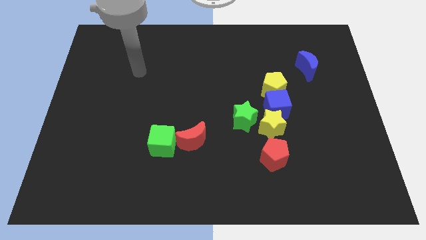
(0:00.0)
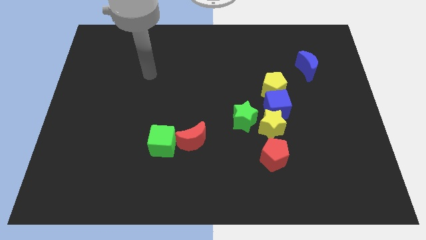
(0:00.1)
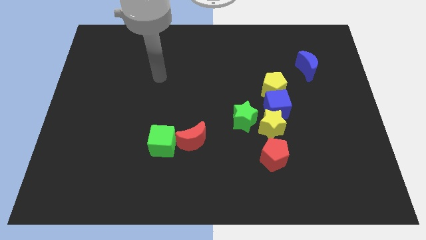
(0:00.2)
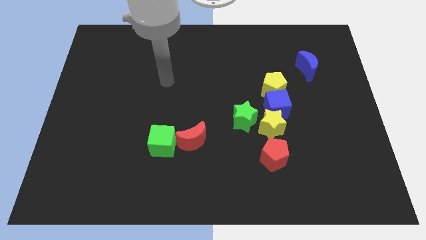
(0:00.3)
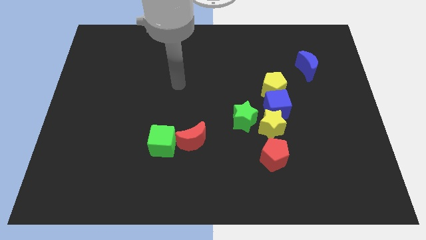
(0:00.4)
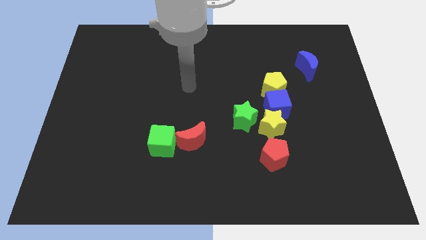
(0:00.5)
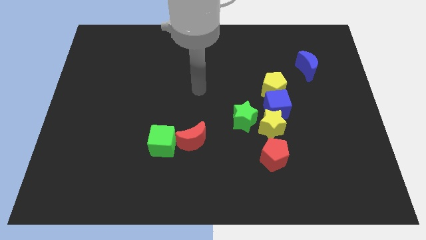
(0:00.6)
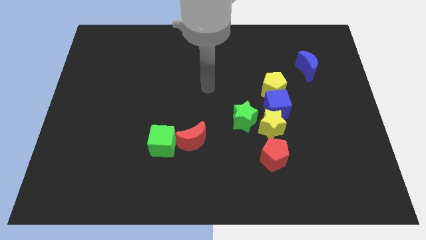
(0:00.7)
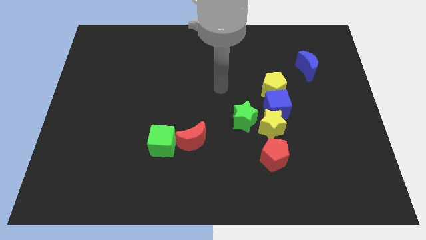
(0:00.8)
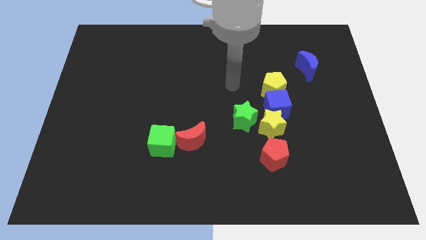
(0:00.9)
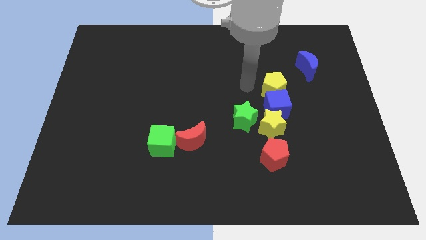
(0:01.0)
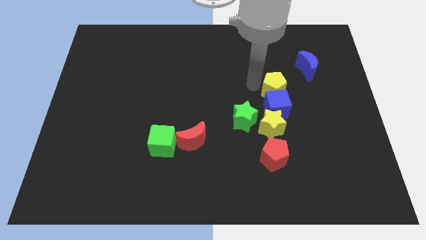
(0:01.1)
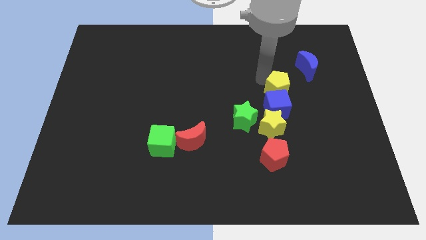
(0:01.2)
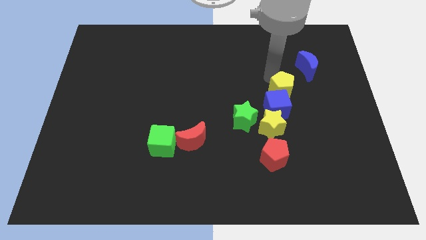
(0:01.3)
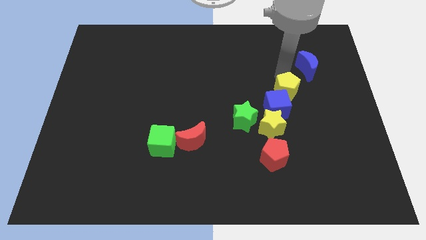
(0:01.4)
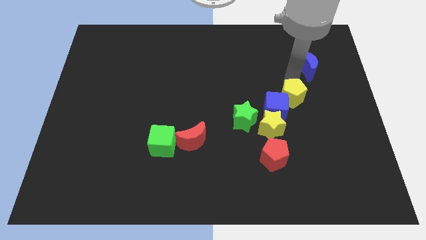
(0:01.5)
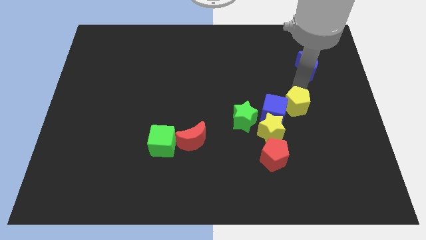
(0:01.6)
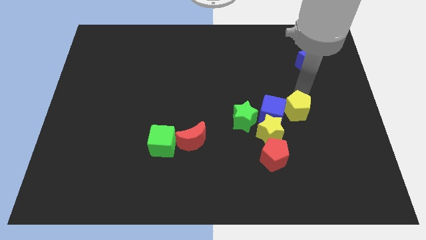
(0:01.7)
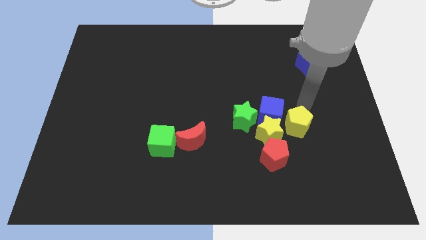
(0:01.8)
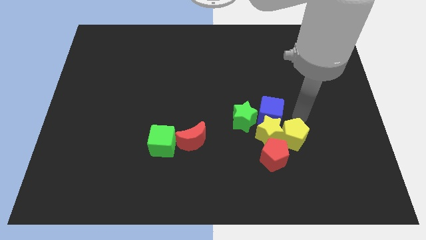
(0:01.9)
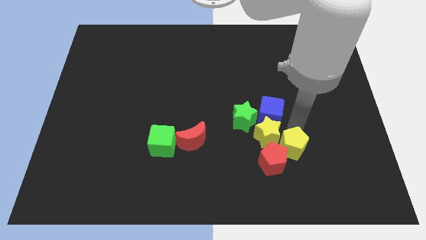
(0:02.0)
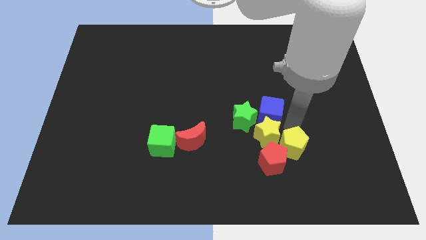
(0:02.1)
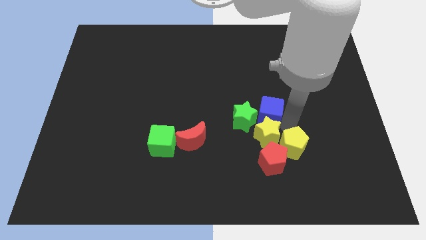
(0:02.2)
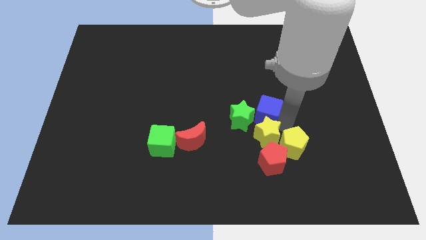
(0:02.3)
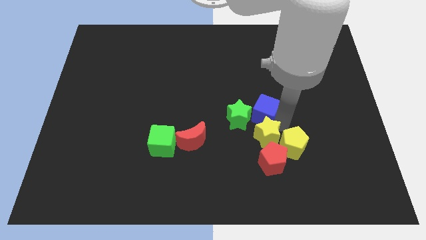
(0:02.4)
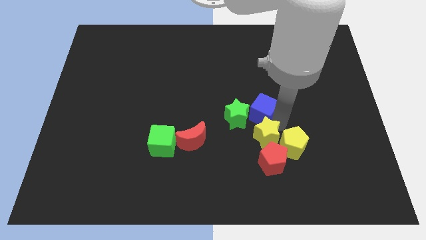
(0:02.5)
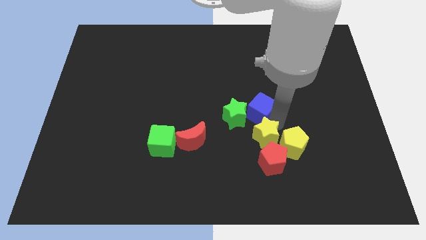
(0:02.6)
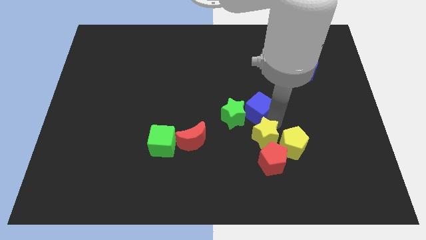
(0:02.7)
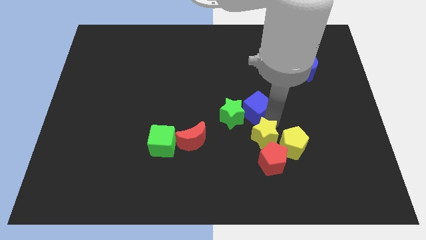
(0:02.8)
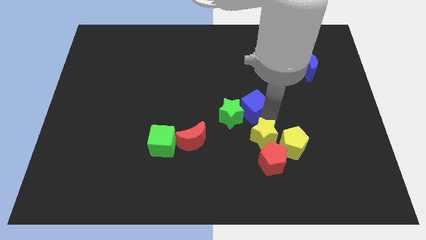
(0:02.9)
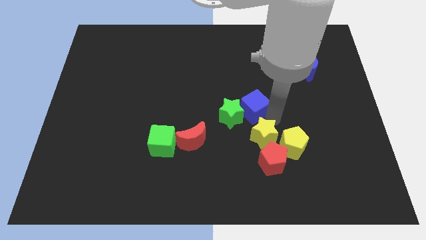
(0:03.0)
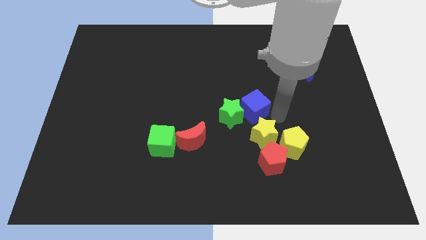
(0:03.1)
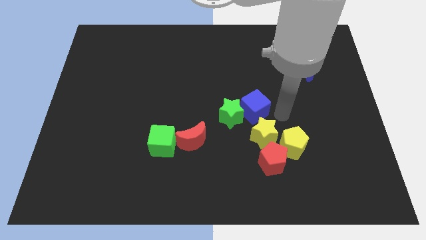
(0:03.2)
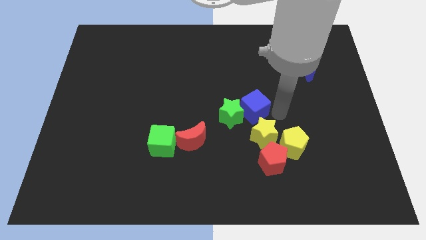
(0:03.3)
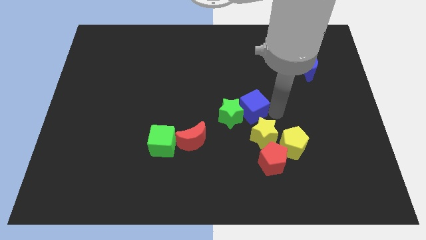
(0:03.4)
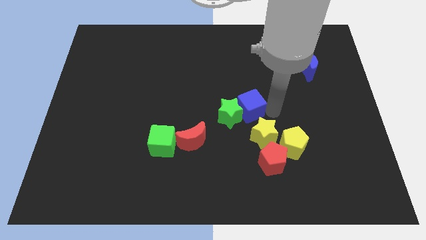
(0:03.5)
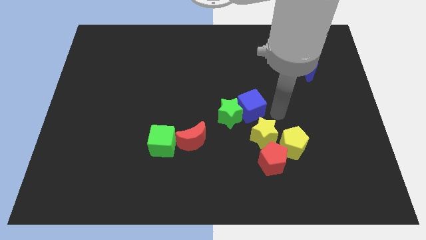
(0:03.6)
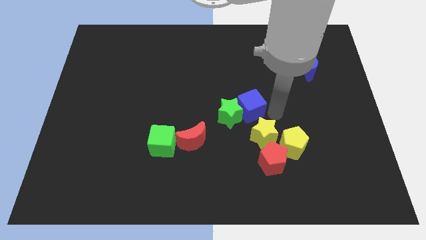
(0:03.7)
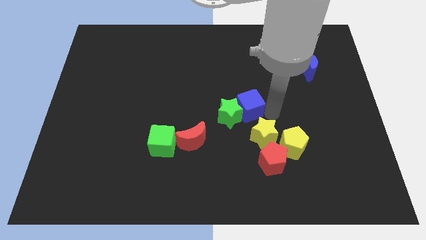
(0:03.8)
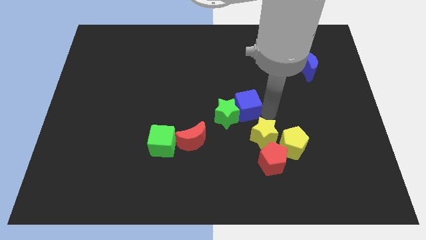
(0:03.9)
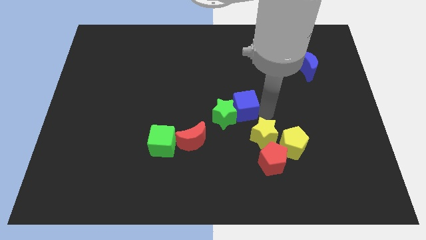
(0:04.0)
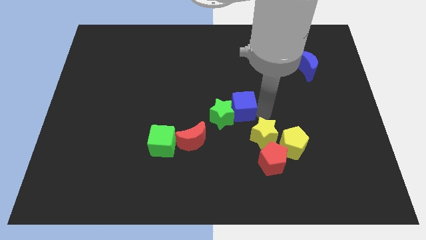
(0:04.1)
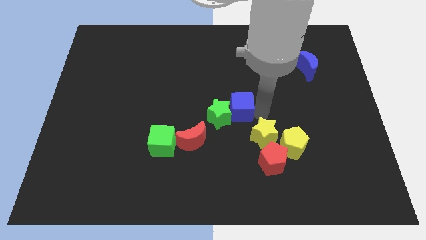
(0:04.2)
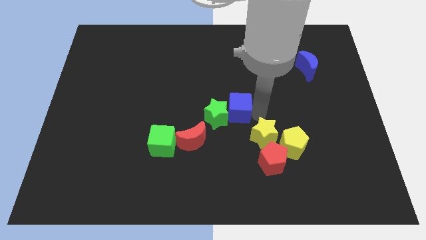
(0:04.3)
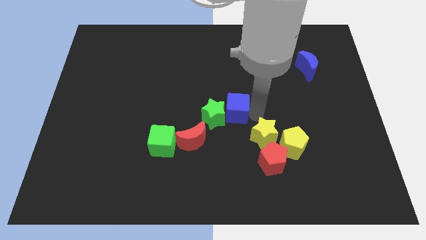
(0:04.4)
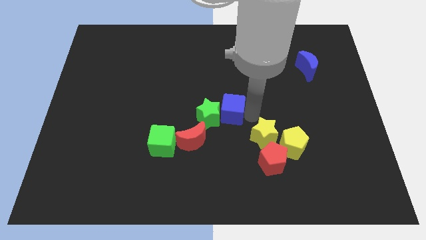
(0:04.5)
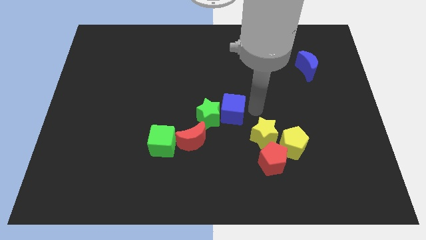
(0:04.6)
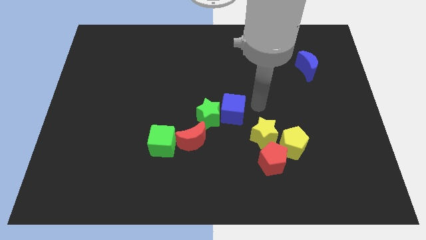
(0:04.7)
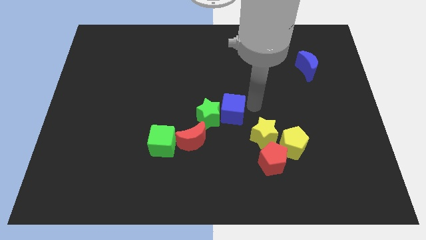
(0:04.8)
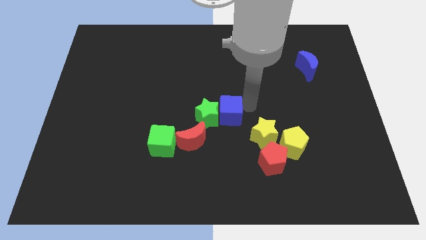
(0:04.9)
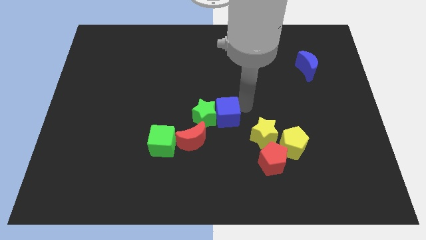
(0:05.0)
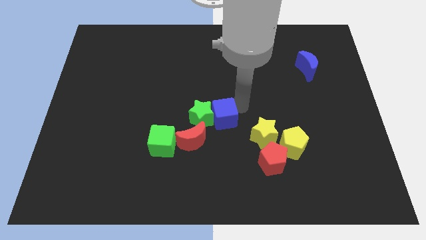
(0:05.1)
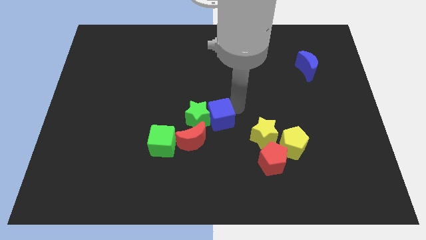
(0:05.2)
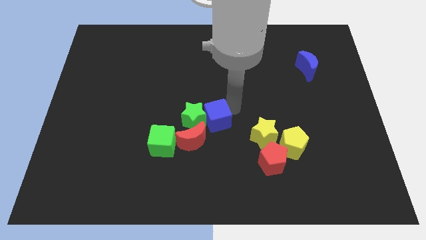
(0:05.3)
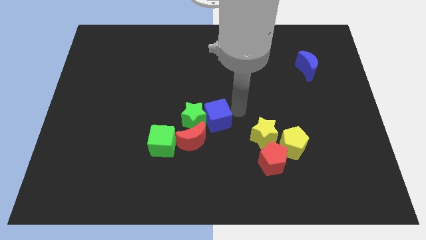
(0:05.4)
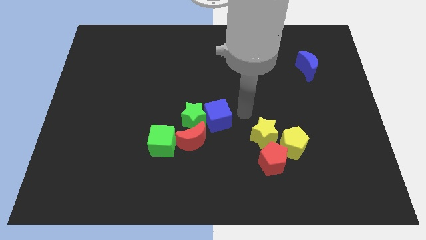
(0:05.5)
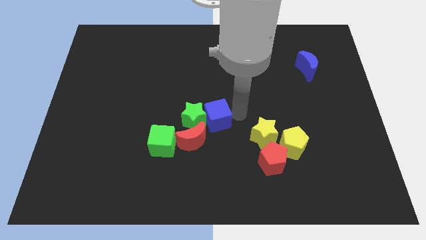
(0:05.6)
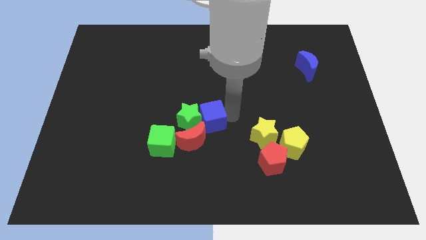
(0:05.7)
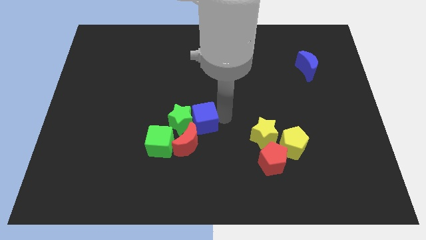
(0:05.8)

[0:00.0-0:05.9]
put the blue cube to the top right side of the green cube

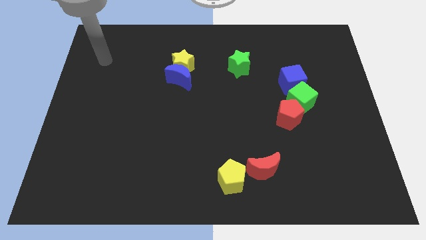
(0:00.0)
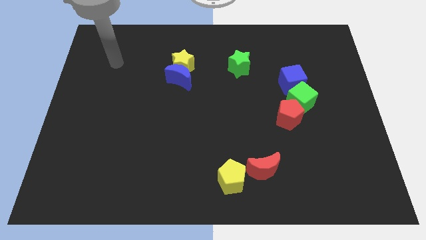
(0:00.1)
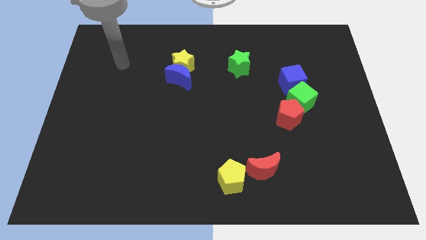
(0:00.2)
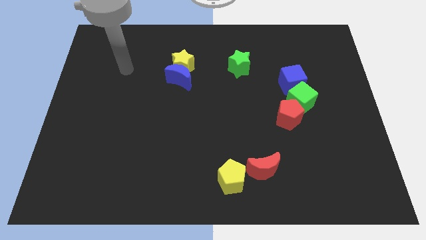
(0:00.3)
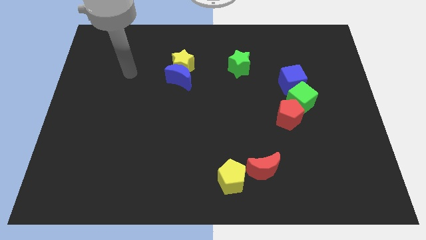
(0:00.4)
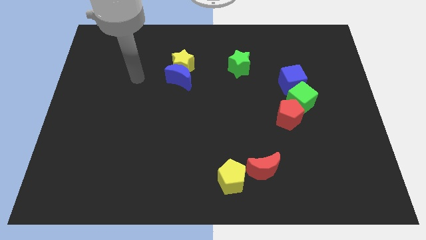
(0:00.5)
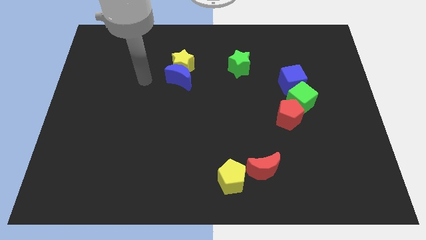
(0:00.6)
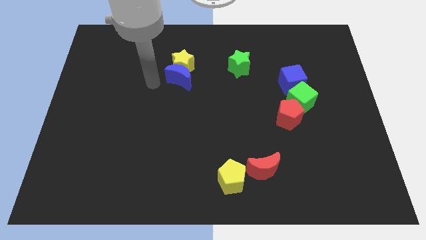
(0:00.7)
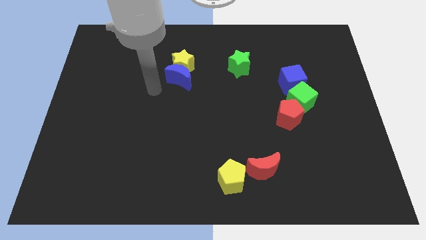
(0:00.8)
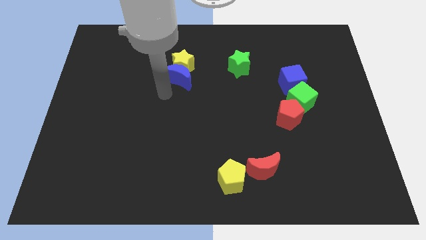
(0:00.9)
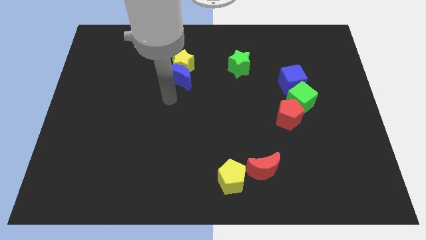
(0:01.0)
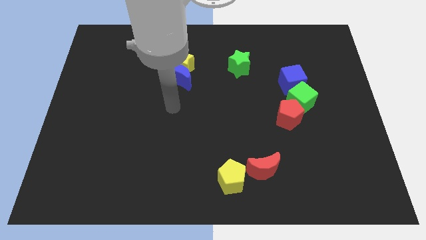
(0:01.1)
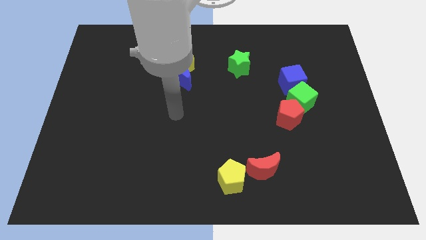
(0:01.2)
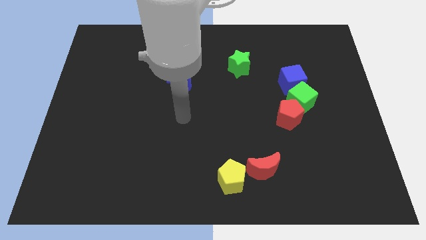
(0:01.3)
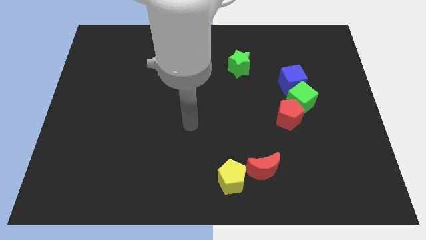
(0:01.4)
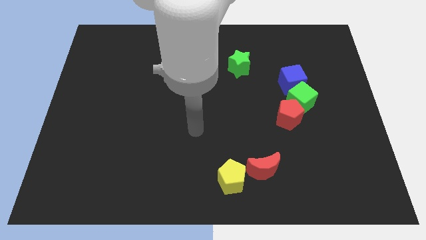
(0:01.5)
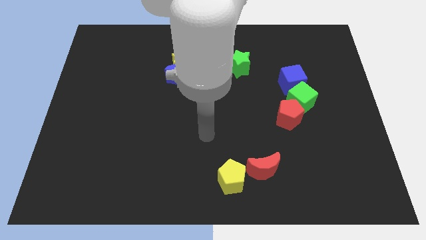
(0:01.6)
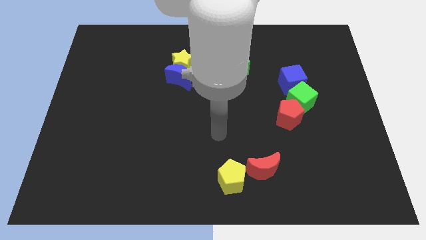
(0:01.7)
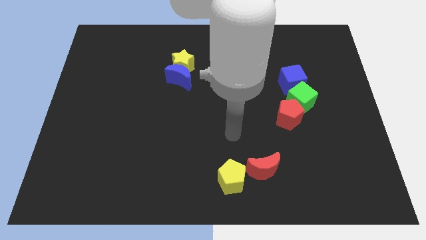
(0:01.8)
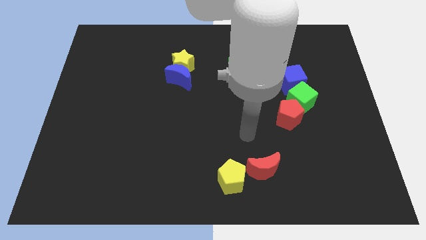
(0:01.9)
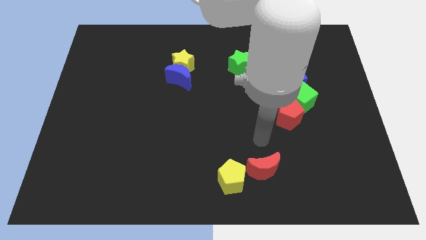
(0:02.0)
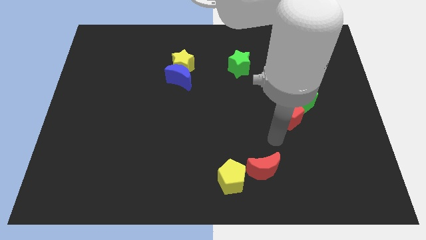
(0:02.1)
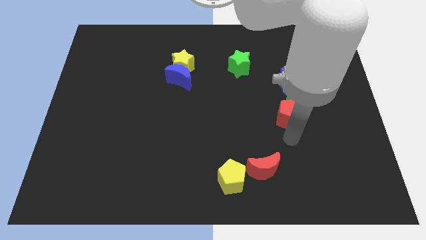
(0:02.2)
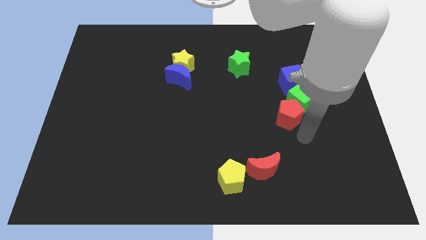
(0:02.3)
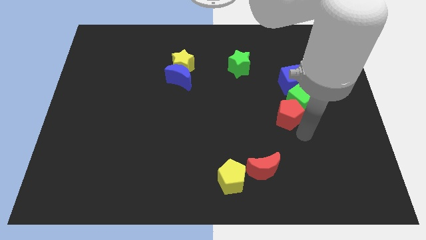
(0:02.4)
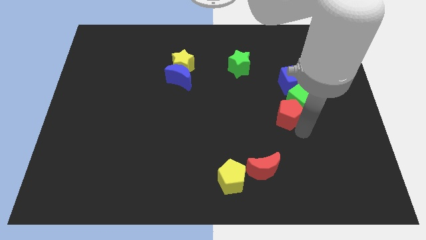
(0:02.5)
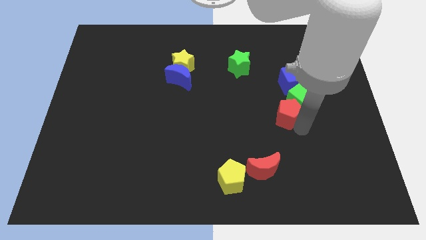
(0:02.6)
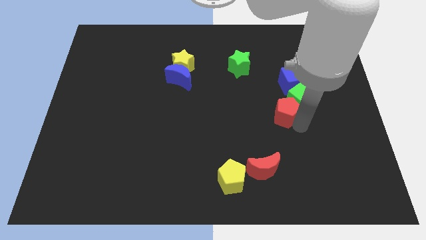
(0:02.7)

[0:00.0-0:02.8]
push the red pentagon to the bottom left of the blue cube
